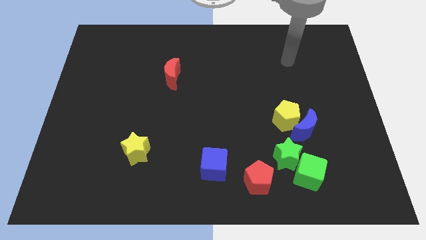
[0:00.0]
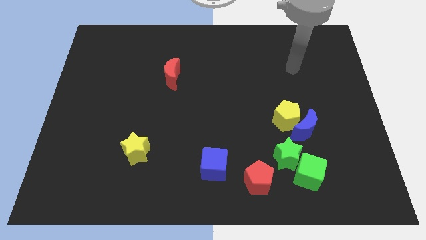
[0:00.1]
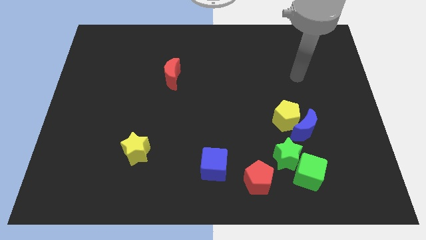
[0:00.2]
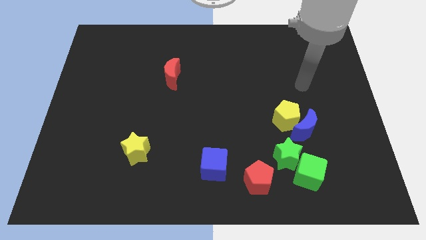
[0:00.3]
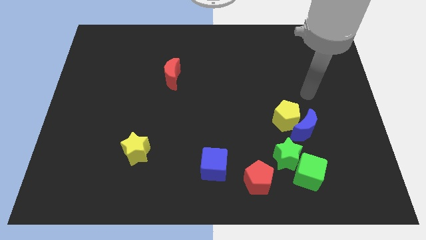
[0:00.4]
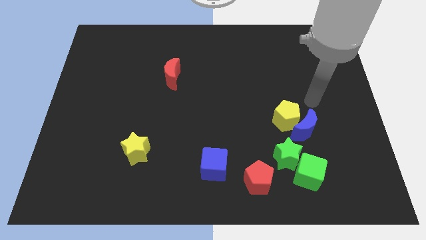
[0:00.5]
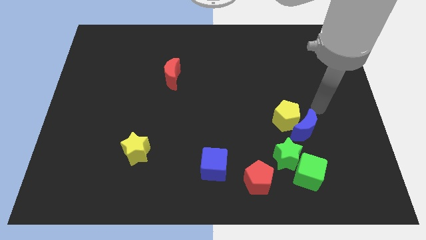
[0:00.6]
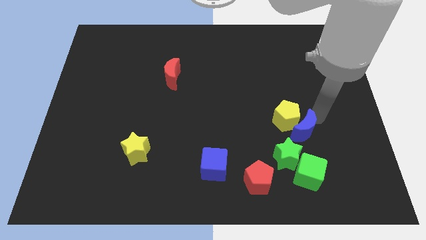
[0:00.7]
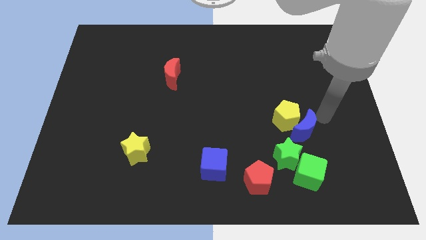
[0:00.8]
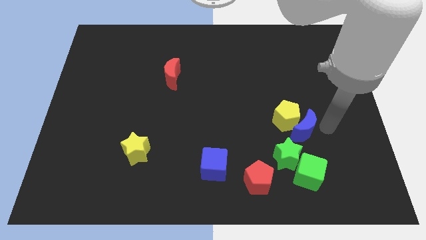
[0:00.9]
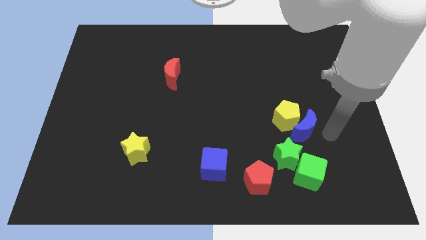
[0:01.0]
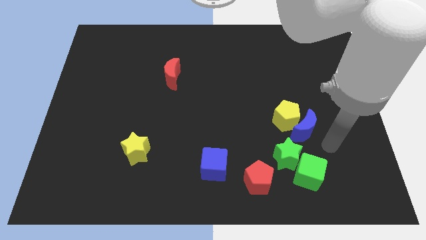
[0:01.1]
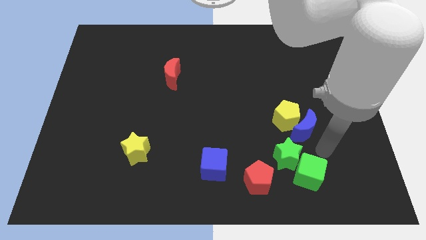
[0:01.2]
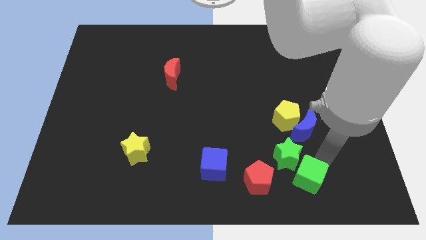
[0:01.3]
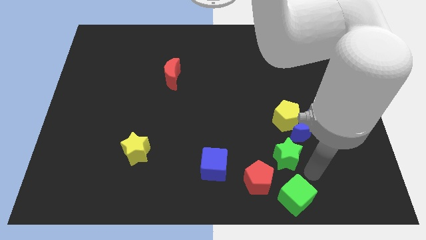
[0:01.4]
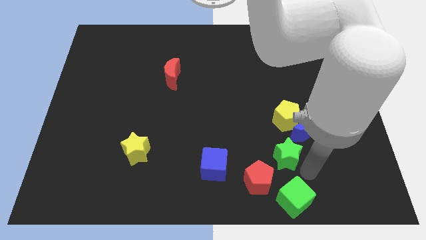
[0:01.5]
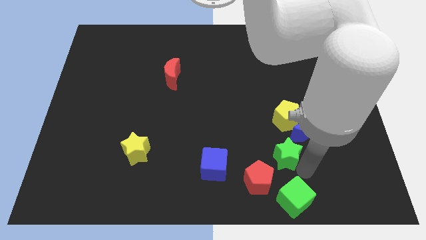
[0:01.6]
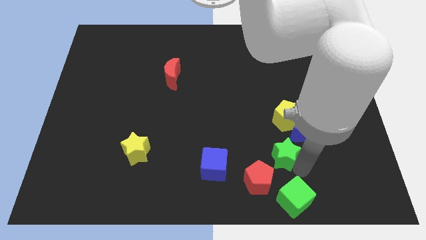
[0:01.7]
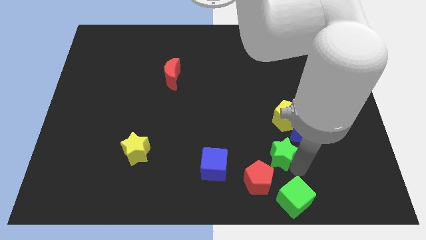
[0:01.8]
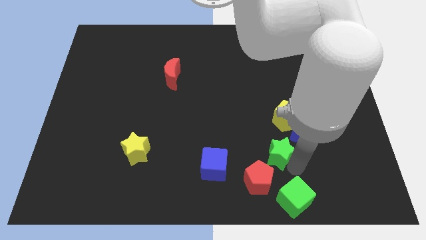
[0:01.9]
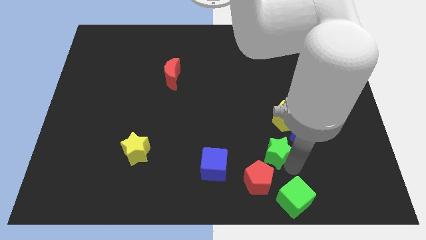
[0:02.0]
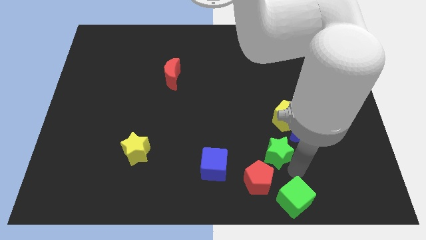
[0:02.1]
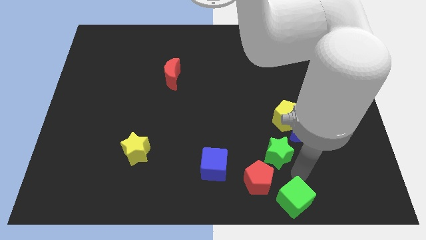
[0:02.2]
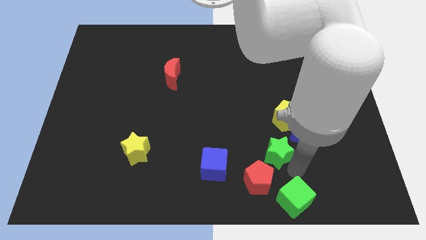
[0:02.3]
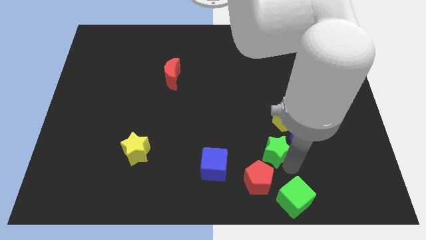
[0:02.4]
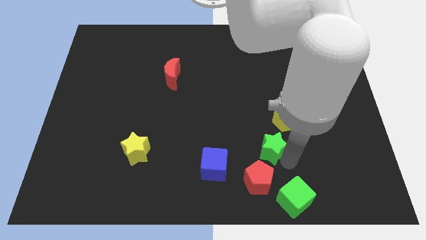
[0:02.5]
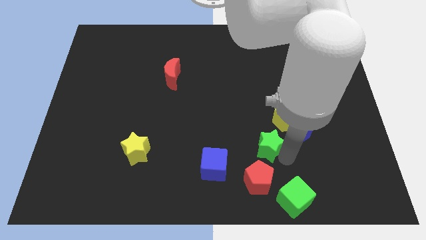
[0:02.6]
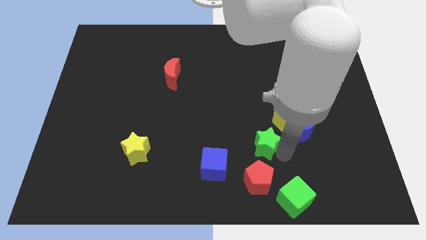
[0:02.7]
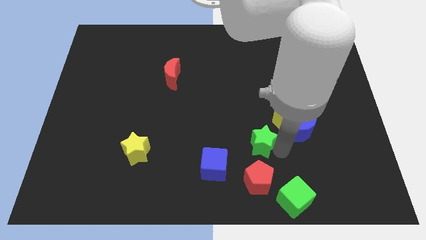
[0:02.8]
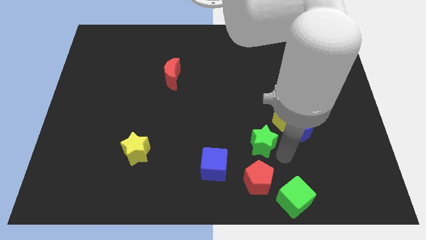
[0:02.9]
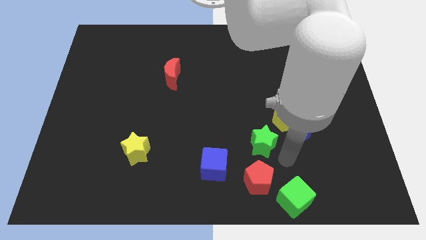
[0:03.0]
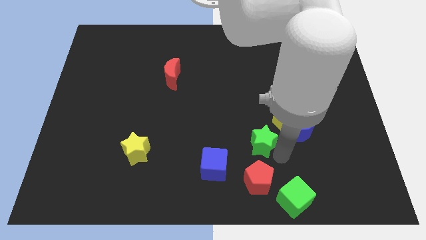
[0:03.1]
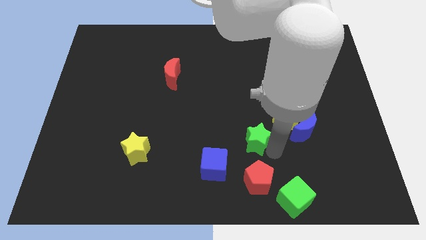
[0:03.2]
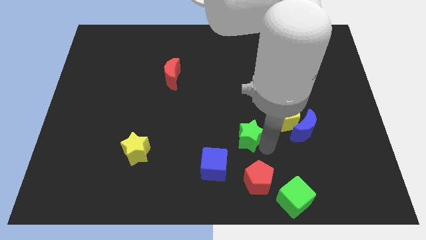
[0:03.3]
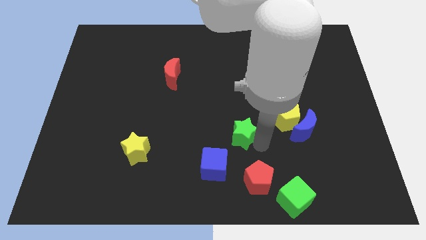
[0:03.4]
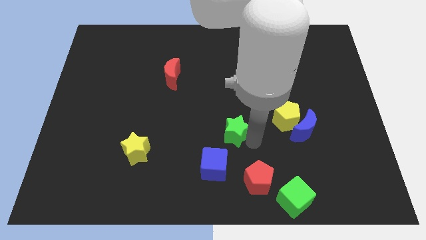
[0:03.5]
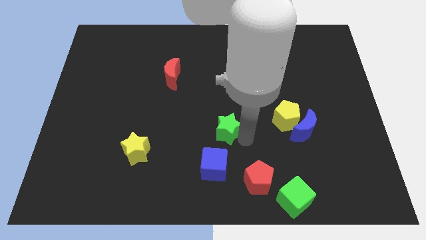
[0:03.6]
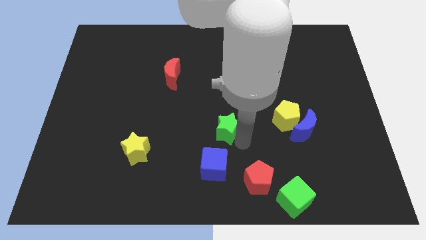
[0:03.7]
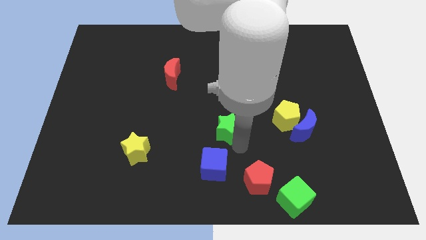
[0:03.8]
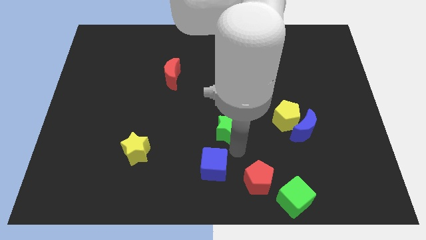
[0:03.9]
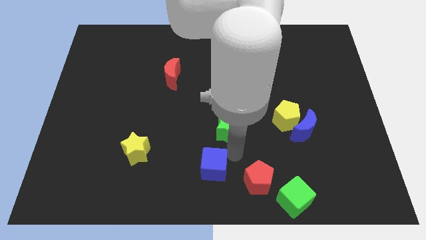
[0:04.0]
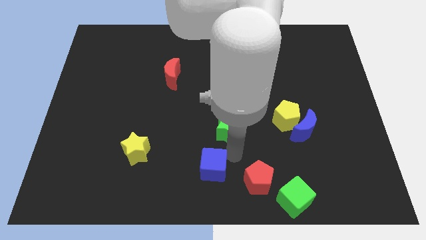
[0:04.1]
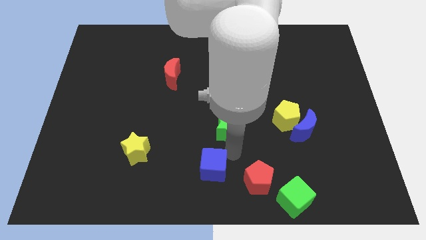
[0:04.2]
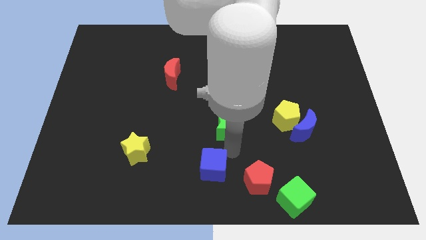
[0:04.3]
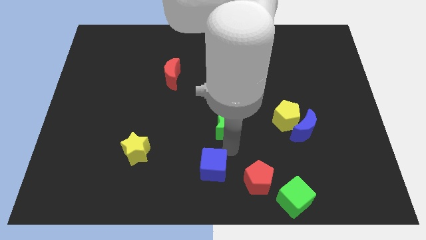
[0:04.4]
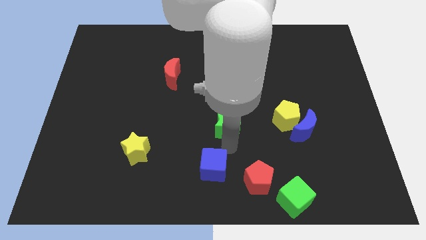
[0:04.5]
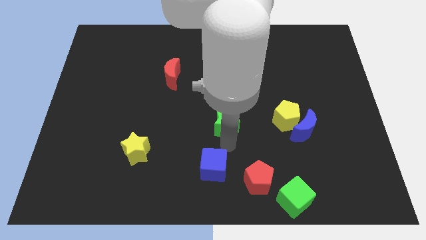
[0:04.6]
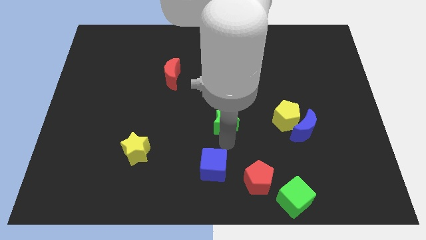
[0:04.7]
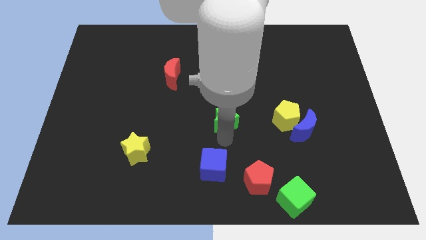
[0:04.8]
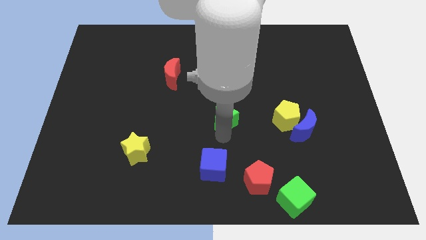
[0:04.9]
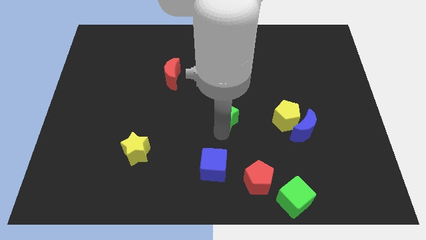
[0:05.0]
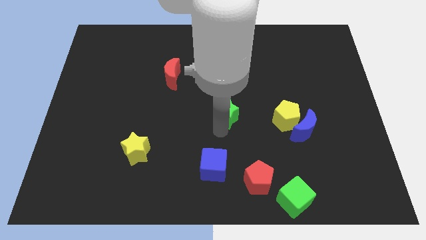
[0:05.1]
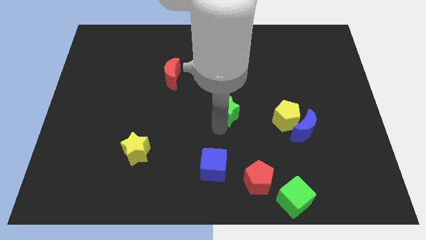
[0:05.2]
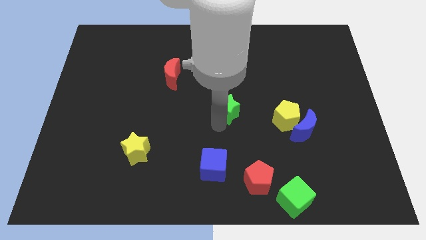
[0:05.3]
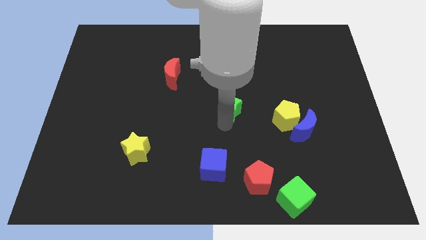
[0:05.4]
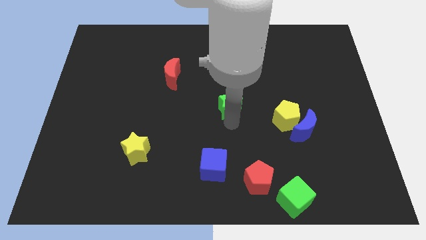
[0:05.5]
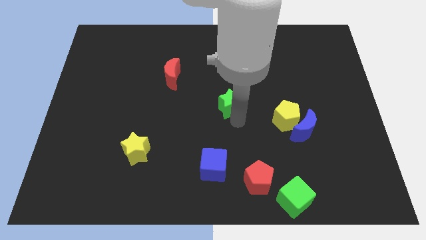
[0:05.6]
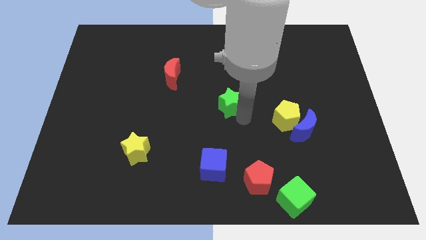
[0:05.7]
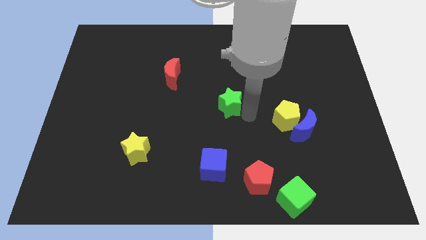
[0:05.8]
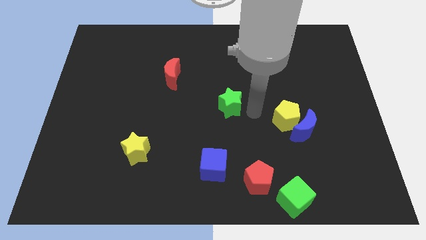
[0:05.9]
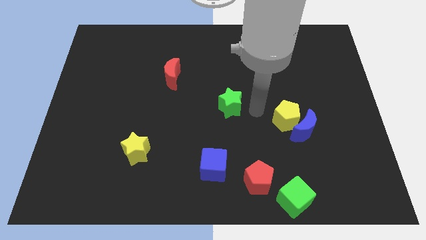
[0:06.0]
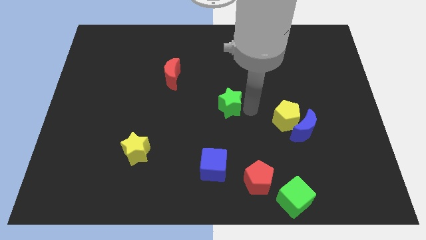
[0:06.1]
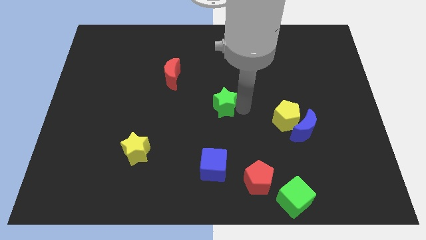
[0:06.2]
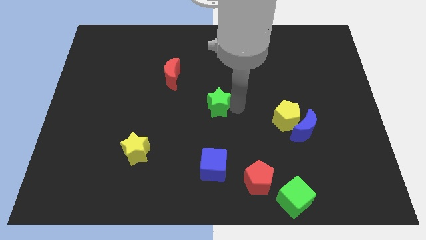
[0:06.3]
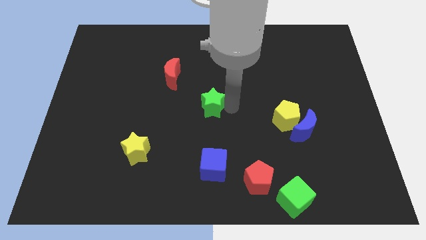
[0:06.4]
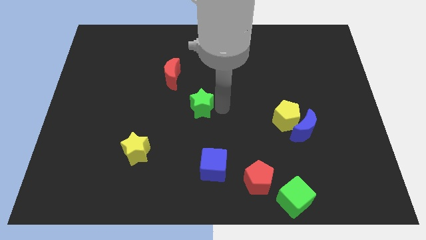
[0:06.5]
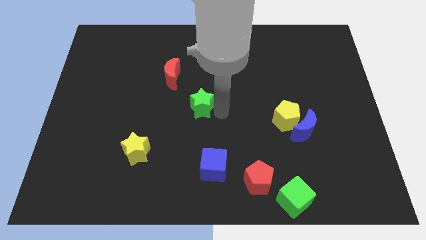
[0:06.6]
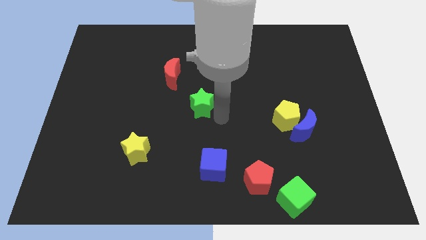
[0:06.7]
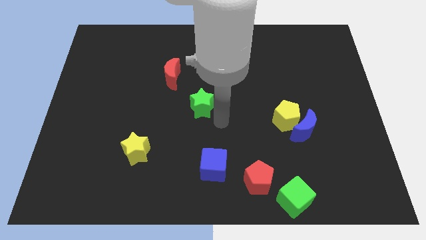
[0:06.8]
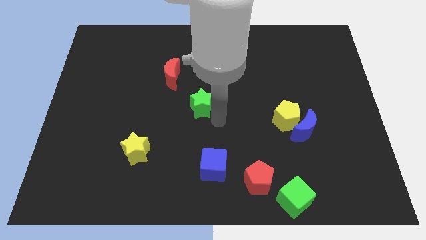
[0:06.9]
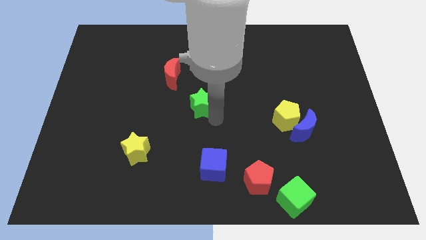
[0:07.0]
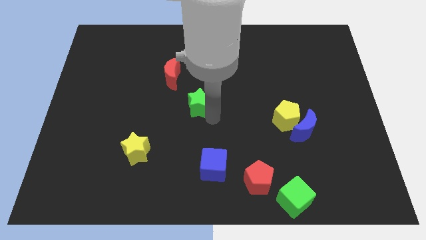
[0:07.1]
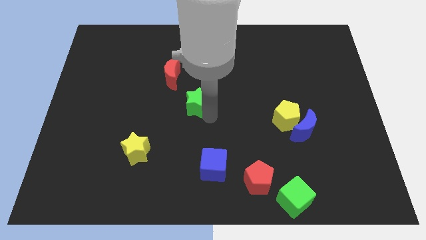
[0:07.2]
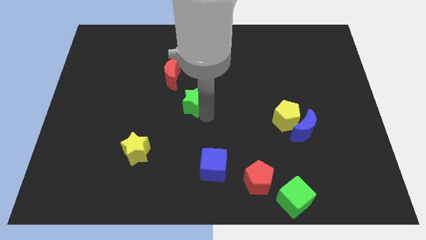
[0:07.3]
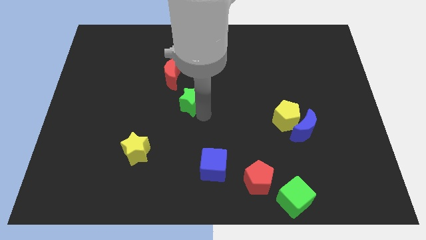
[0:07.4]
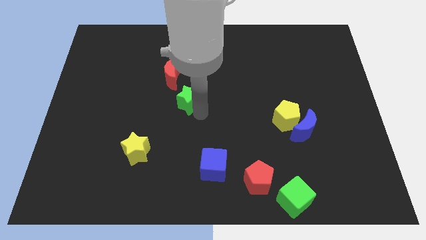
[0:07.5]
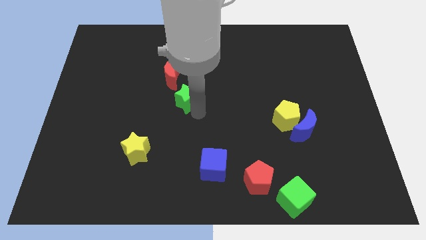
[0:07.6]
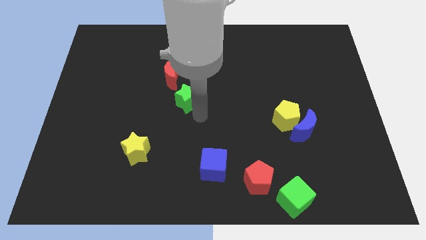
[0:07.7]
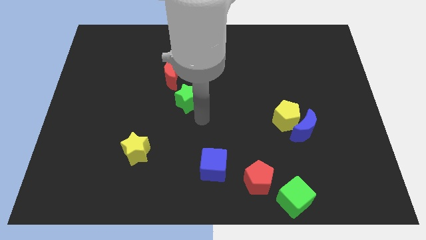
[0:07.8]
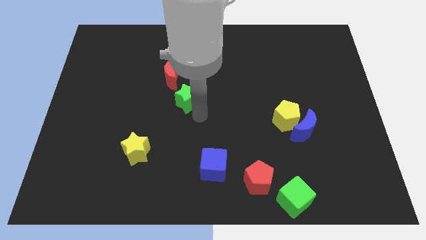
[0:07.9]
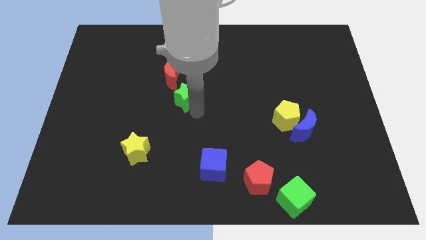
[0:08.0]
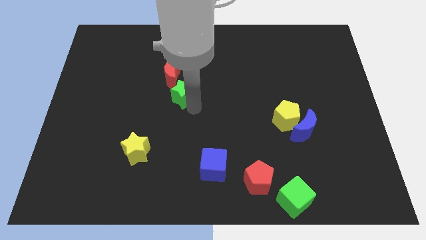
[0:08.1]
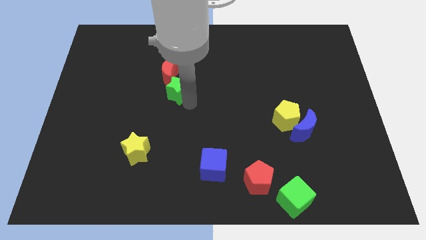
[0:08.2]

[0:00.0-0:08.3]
push the green star close to the red moon
